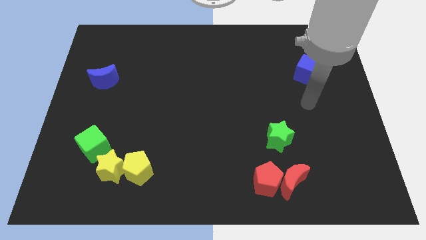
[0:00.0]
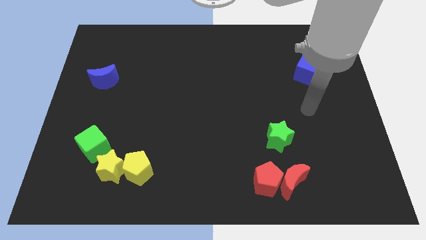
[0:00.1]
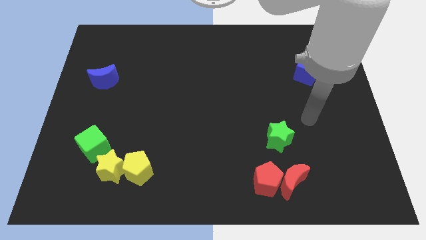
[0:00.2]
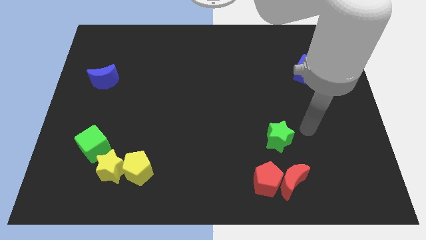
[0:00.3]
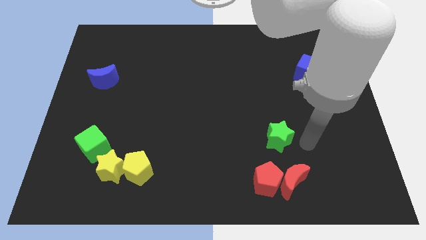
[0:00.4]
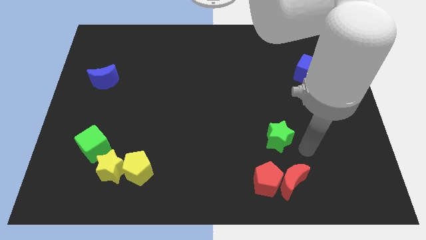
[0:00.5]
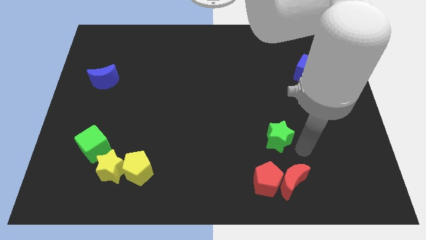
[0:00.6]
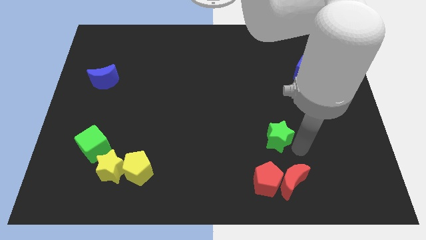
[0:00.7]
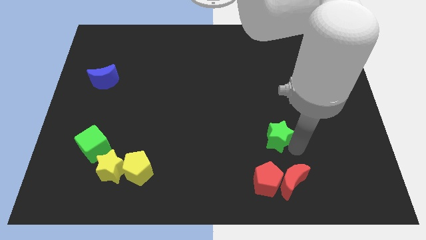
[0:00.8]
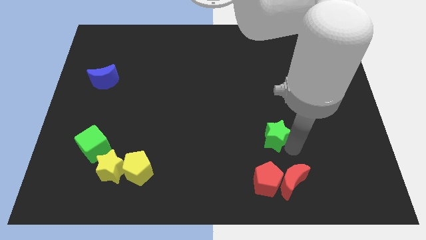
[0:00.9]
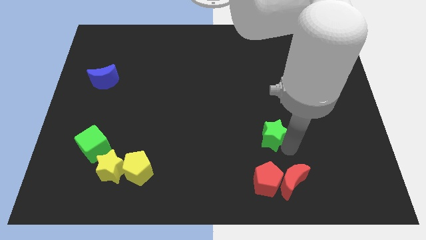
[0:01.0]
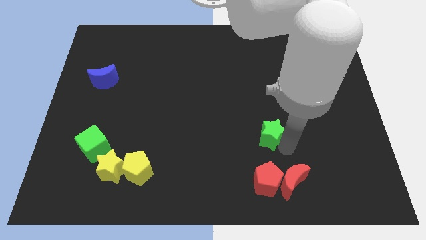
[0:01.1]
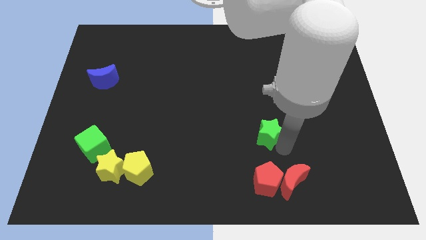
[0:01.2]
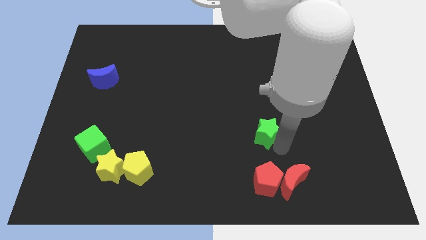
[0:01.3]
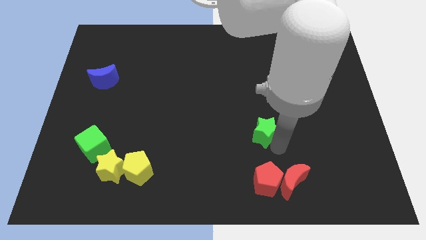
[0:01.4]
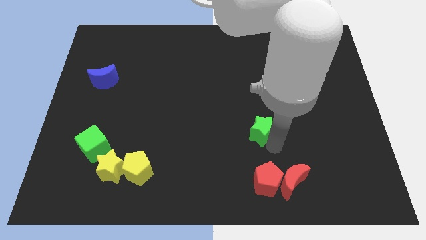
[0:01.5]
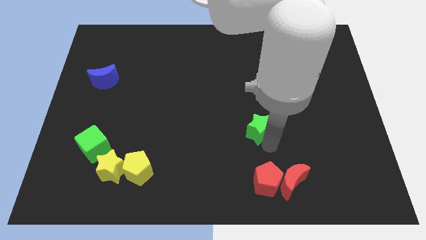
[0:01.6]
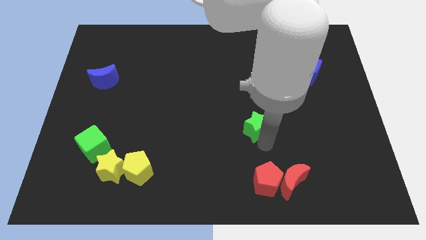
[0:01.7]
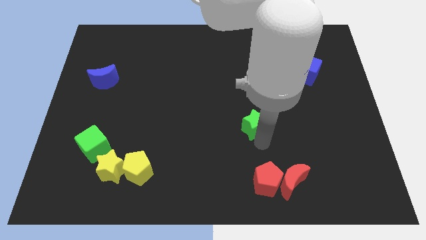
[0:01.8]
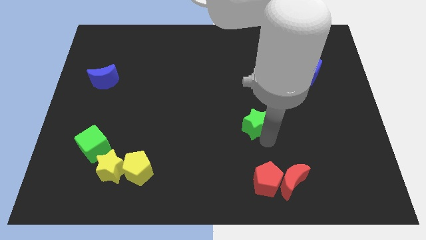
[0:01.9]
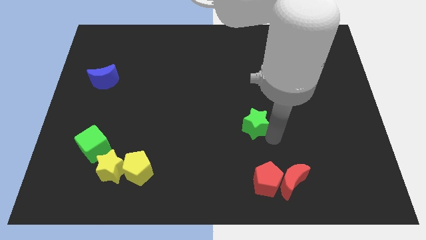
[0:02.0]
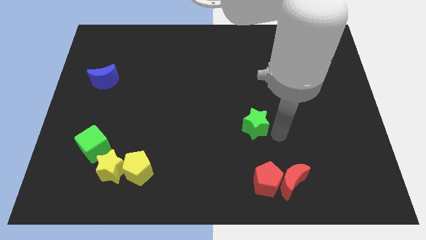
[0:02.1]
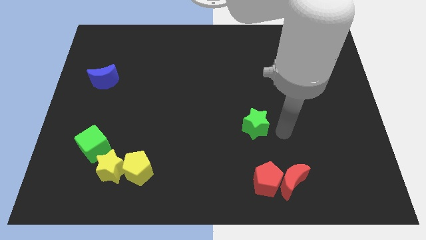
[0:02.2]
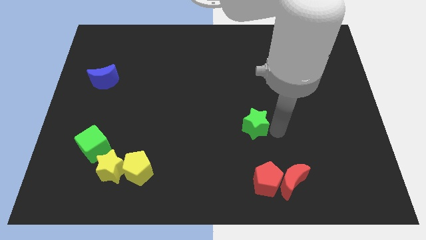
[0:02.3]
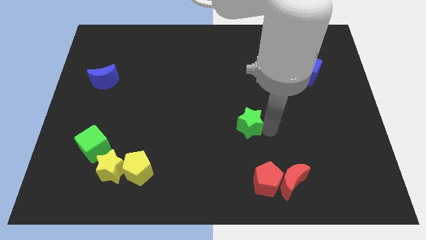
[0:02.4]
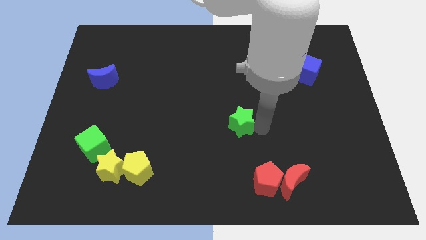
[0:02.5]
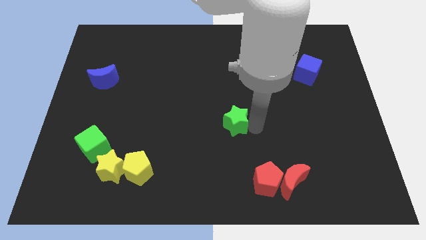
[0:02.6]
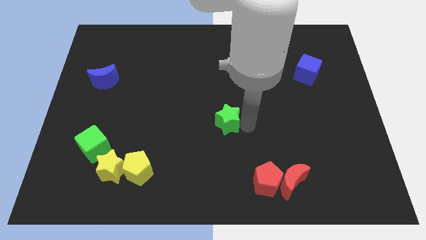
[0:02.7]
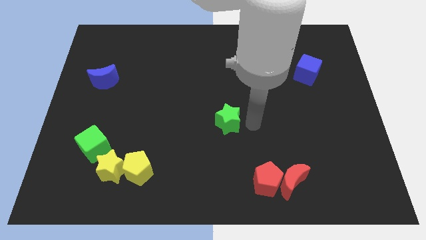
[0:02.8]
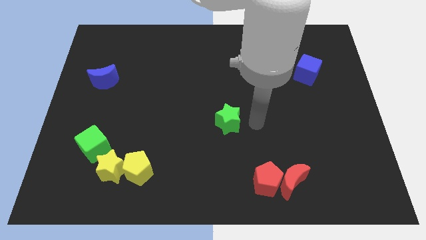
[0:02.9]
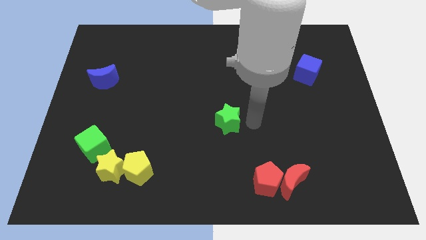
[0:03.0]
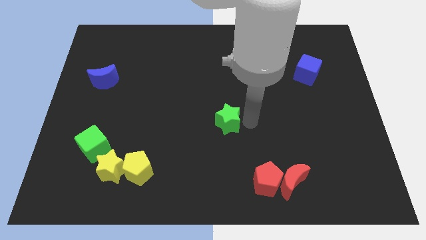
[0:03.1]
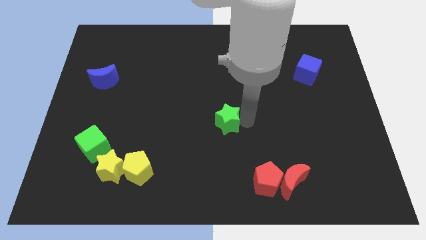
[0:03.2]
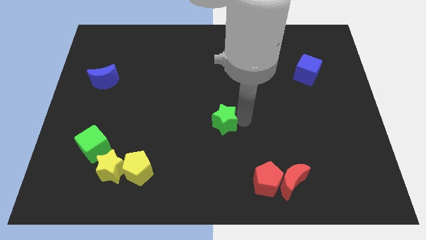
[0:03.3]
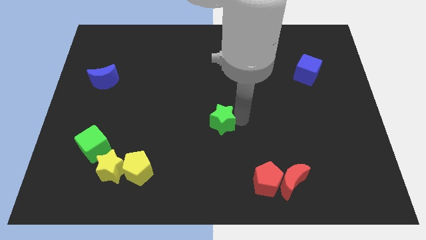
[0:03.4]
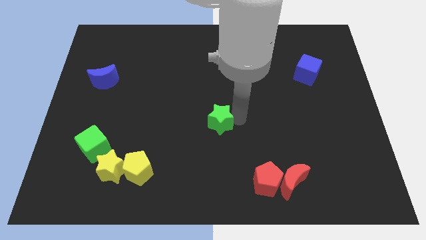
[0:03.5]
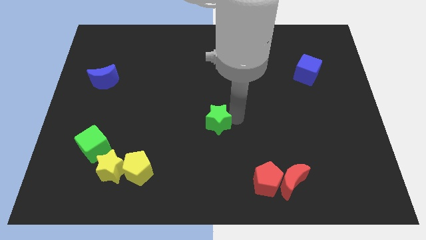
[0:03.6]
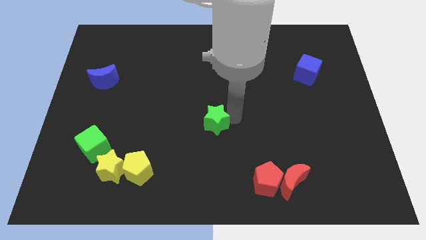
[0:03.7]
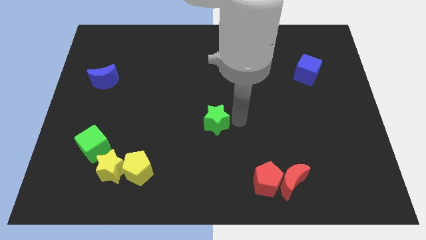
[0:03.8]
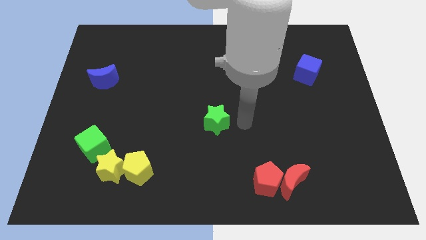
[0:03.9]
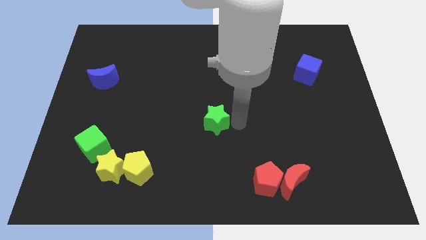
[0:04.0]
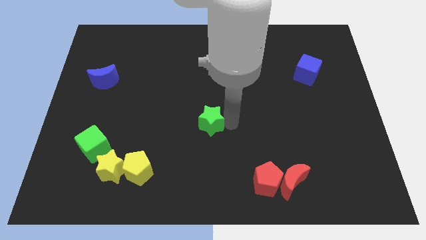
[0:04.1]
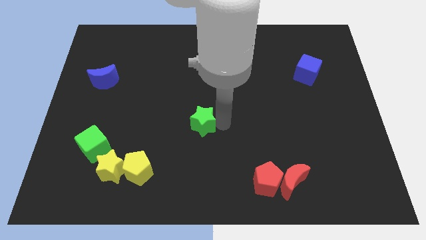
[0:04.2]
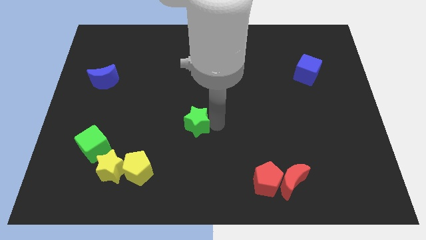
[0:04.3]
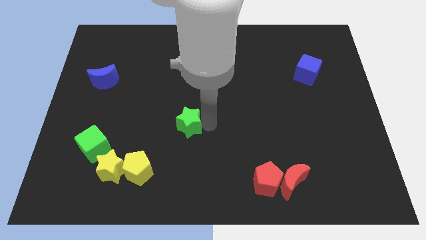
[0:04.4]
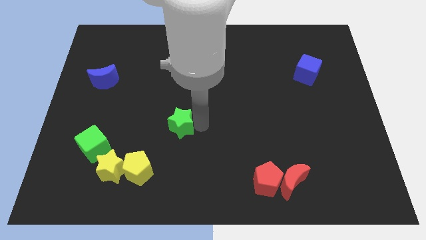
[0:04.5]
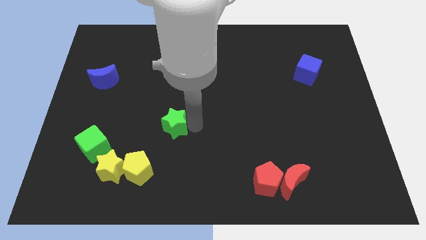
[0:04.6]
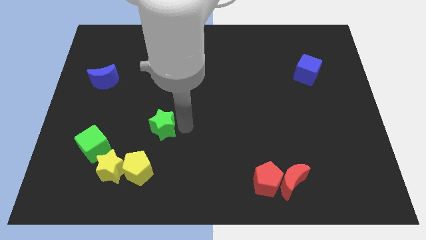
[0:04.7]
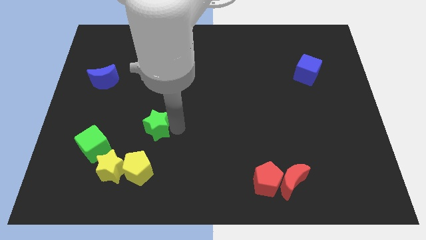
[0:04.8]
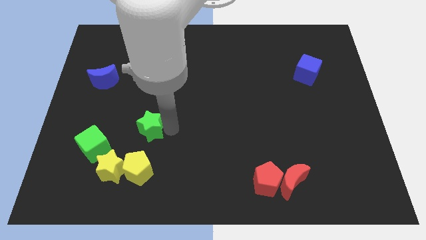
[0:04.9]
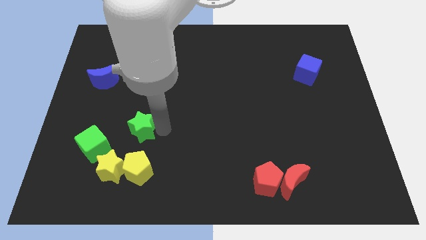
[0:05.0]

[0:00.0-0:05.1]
put the green star to the top side of the yellow star

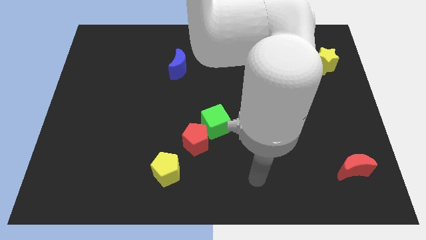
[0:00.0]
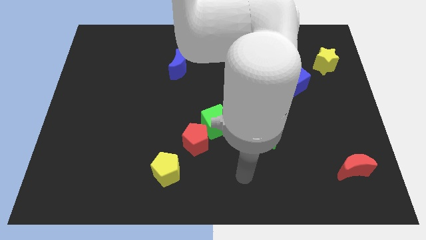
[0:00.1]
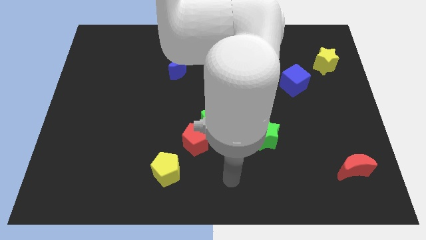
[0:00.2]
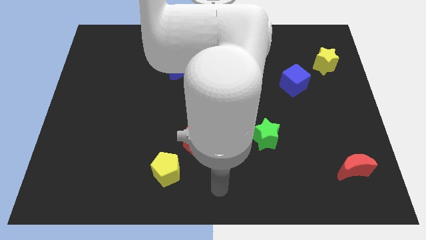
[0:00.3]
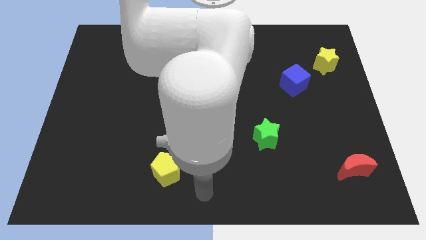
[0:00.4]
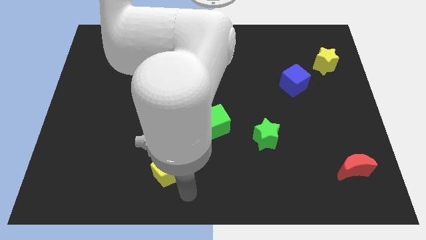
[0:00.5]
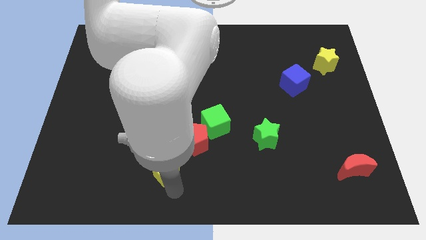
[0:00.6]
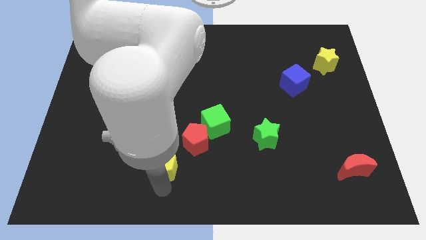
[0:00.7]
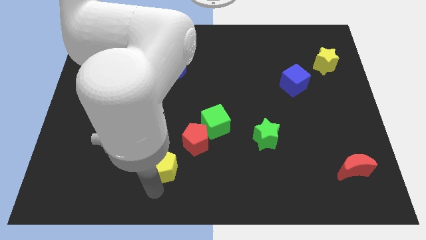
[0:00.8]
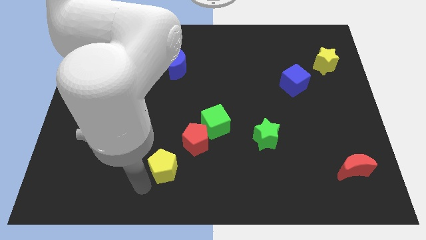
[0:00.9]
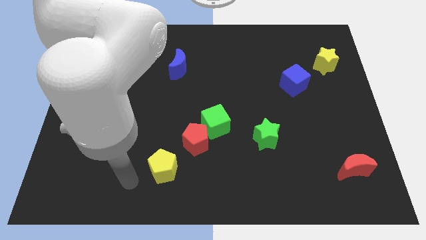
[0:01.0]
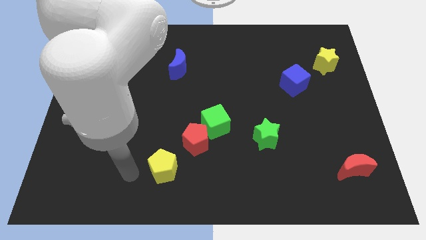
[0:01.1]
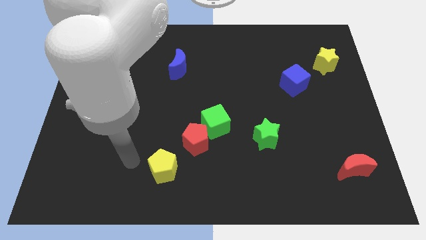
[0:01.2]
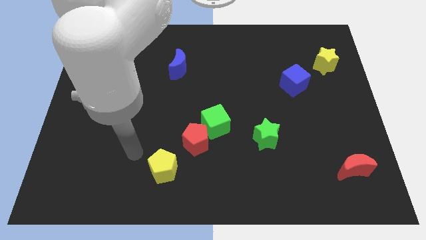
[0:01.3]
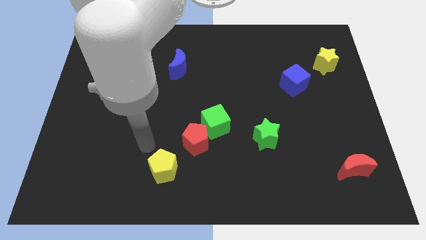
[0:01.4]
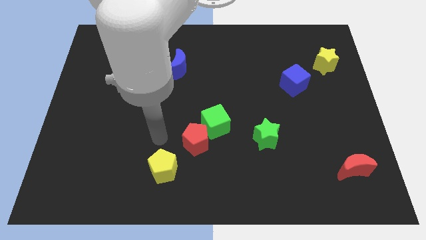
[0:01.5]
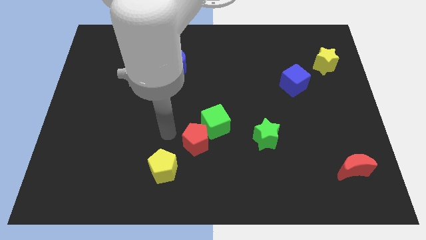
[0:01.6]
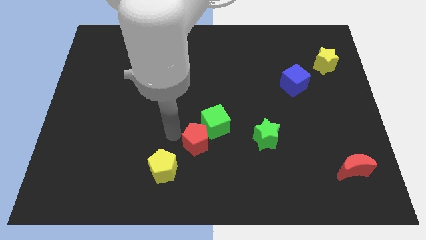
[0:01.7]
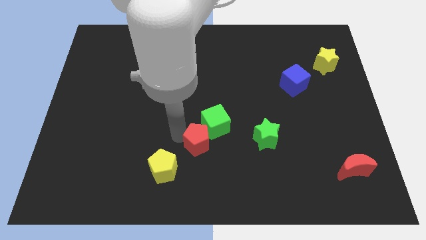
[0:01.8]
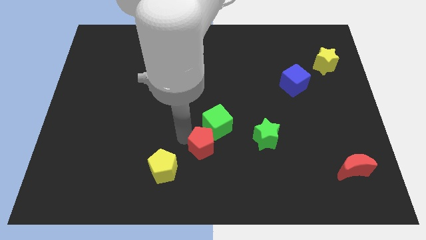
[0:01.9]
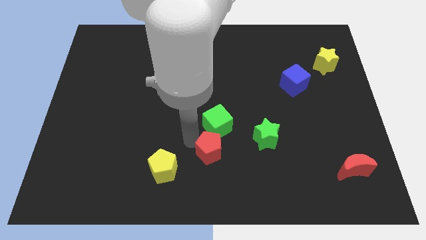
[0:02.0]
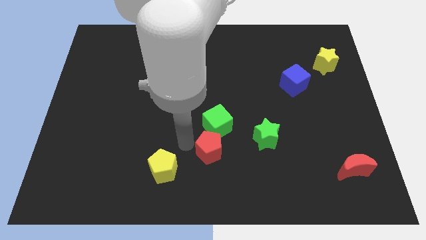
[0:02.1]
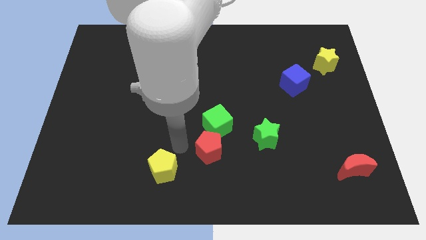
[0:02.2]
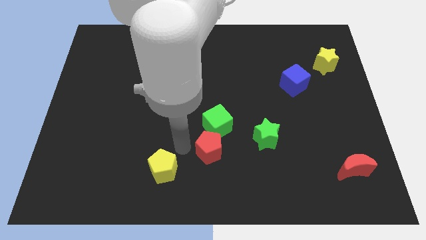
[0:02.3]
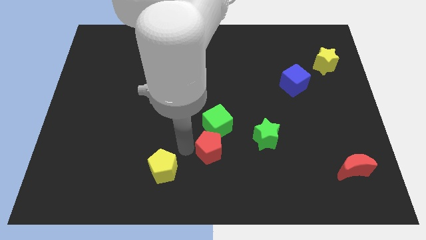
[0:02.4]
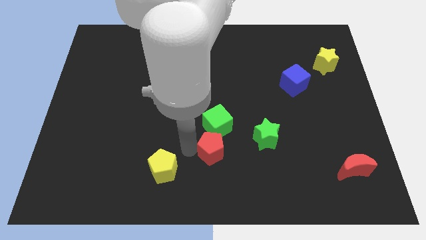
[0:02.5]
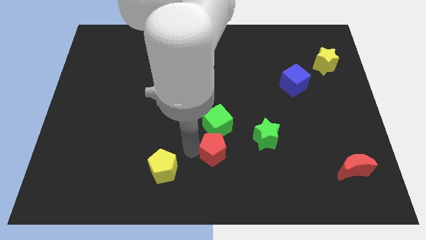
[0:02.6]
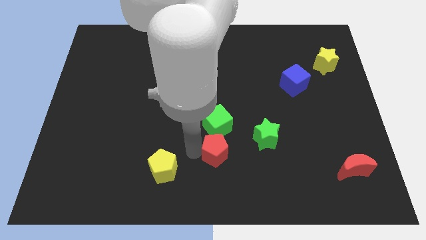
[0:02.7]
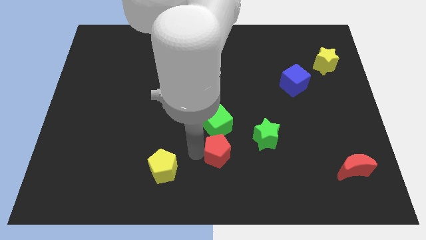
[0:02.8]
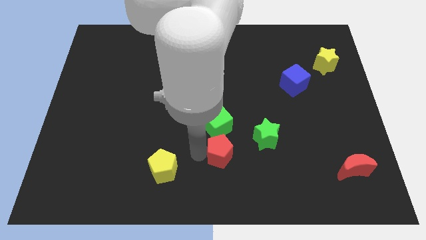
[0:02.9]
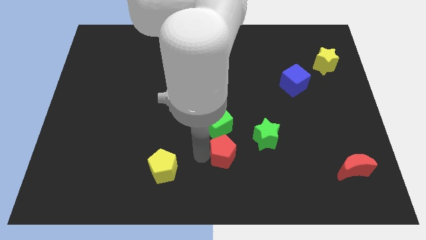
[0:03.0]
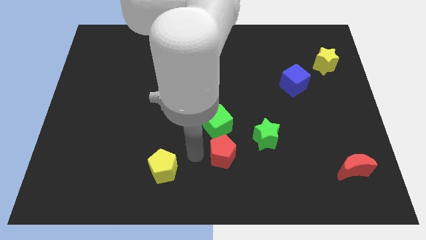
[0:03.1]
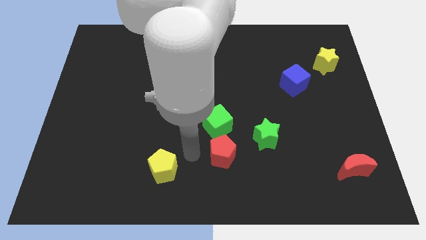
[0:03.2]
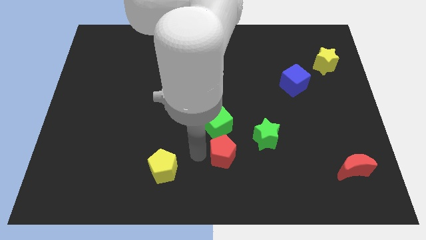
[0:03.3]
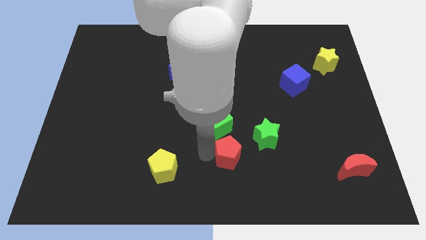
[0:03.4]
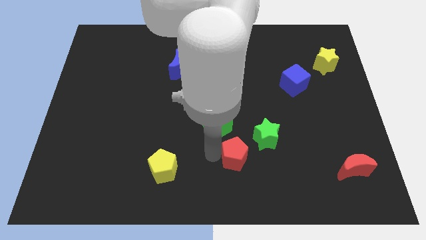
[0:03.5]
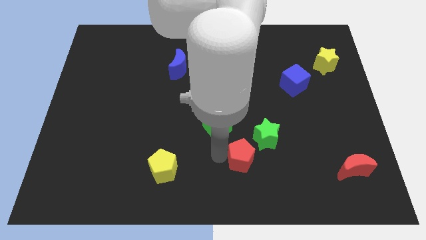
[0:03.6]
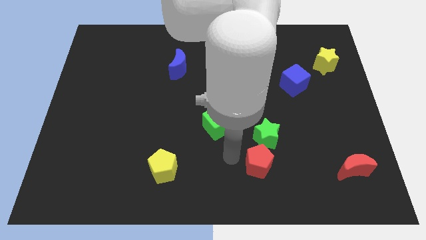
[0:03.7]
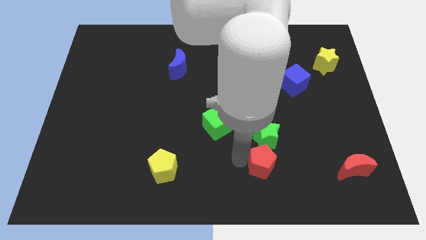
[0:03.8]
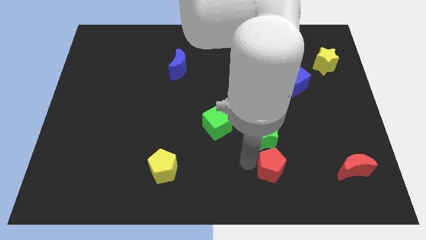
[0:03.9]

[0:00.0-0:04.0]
move the red pentagon to the bottom right side of the green star
